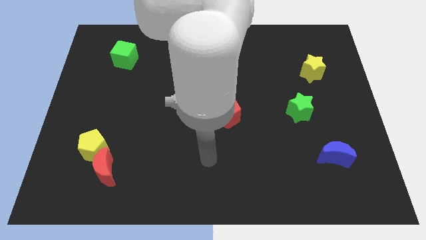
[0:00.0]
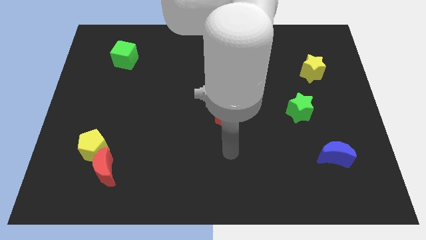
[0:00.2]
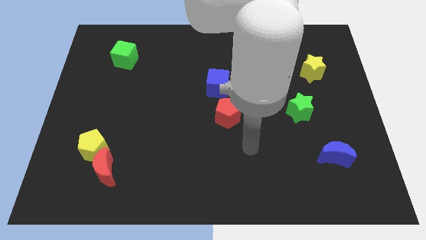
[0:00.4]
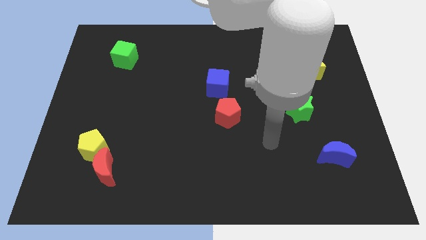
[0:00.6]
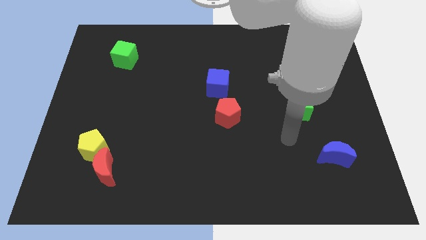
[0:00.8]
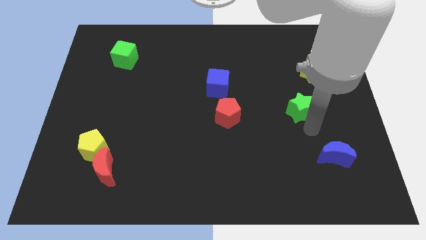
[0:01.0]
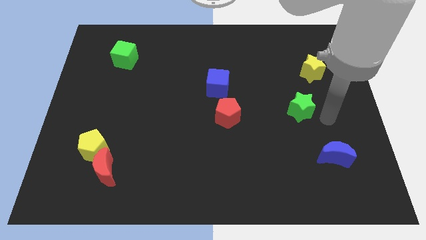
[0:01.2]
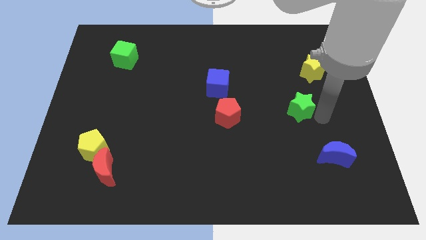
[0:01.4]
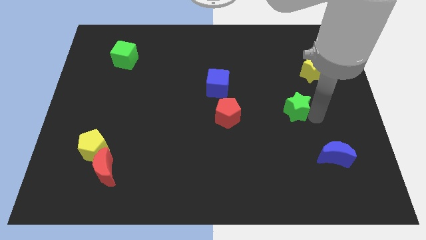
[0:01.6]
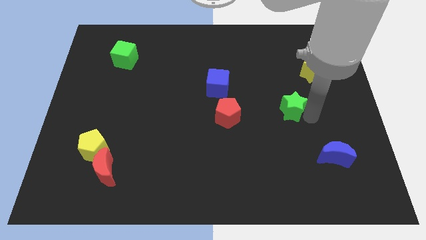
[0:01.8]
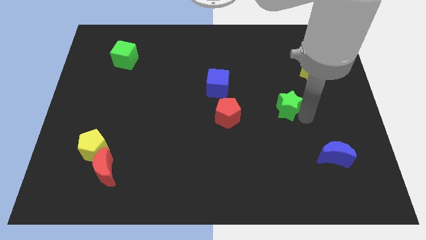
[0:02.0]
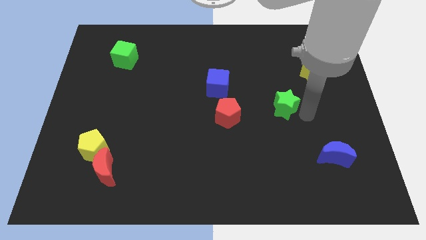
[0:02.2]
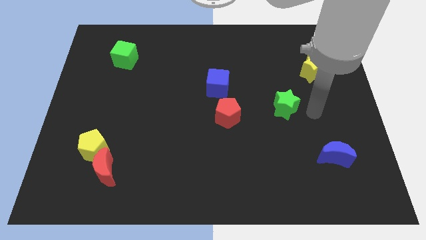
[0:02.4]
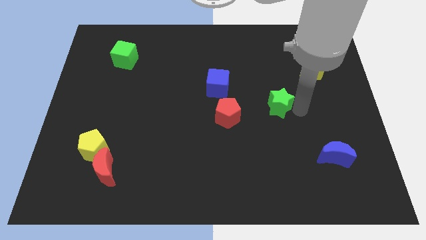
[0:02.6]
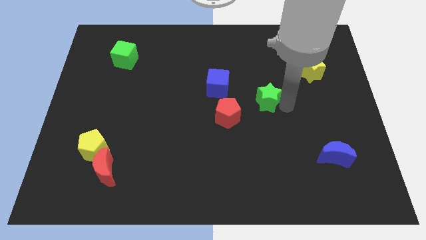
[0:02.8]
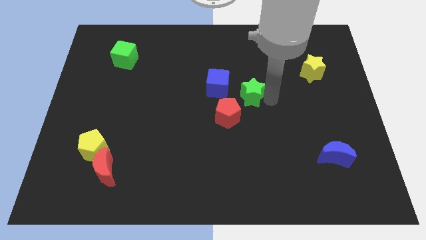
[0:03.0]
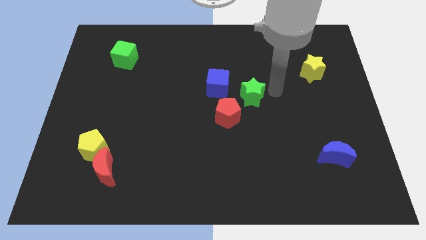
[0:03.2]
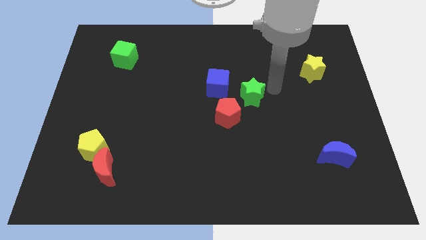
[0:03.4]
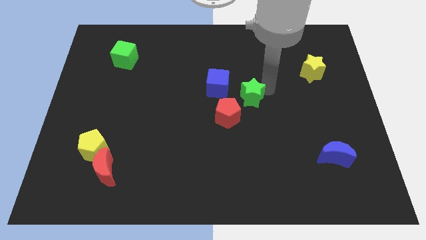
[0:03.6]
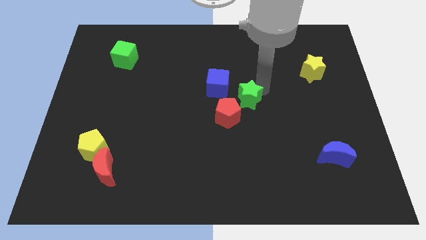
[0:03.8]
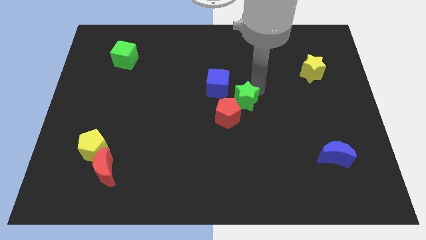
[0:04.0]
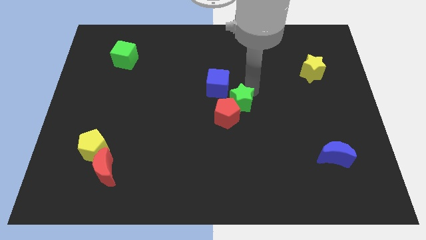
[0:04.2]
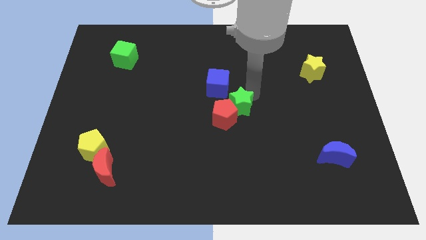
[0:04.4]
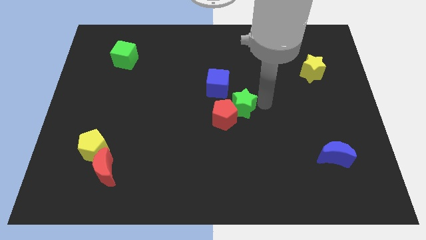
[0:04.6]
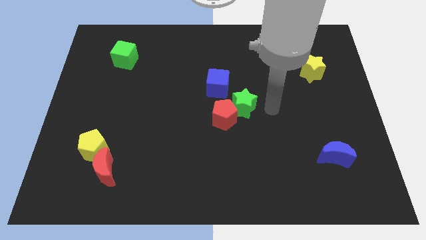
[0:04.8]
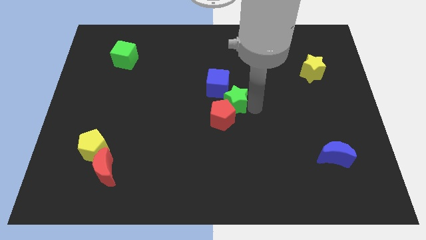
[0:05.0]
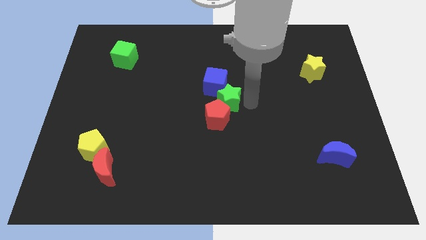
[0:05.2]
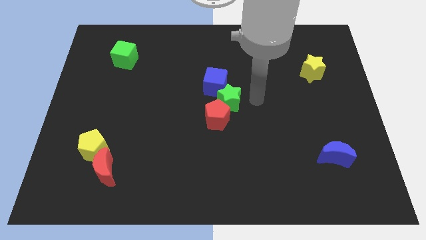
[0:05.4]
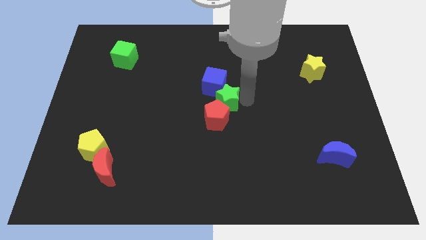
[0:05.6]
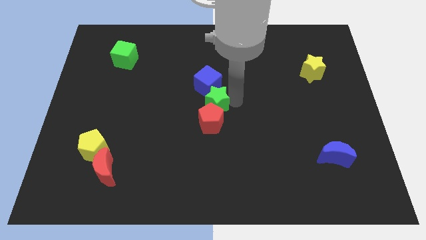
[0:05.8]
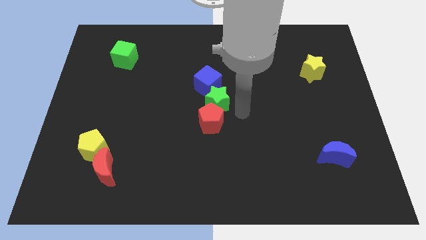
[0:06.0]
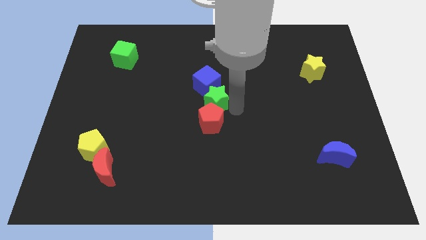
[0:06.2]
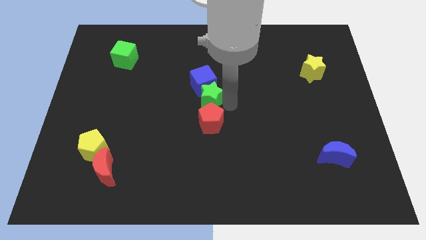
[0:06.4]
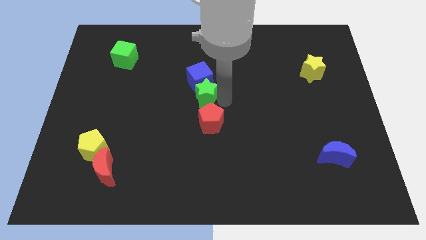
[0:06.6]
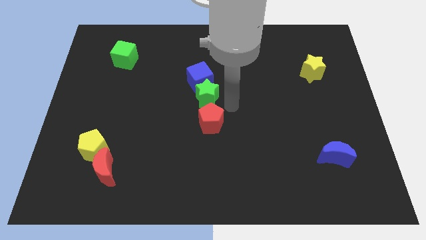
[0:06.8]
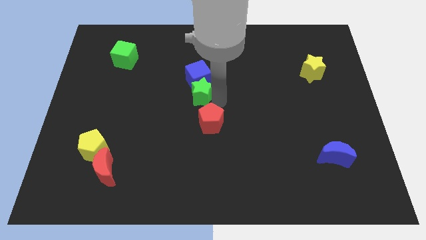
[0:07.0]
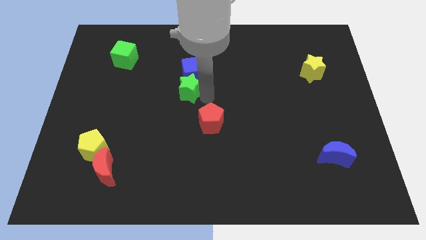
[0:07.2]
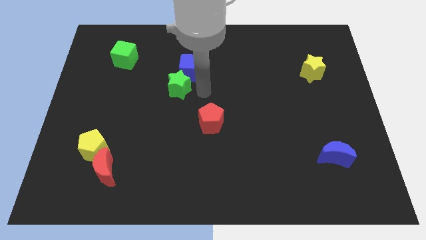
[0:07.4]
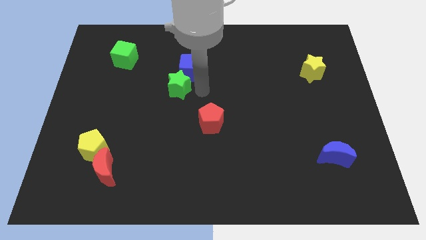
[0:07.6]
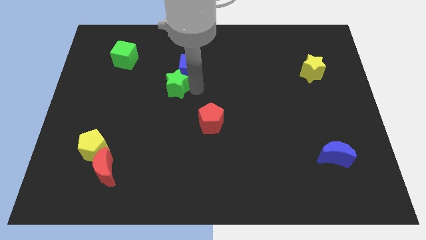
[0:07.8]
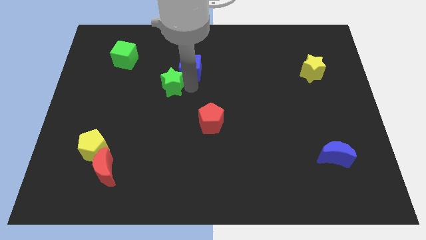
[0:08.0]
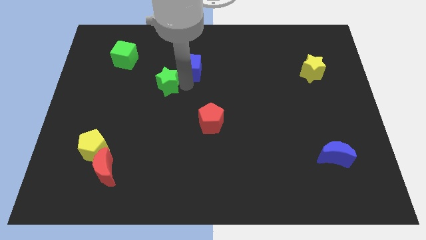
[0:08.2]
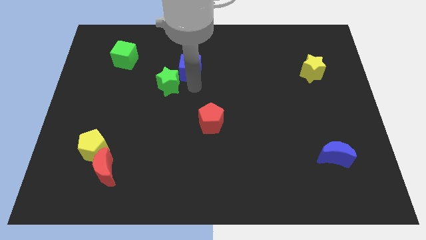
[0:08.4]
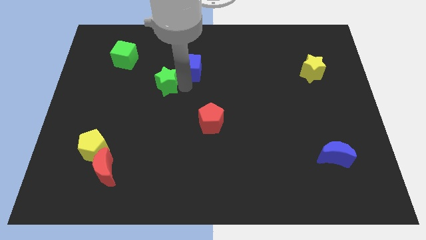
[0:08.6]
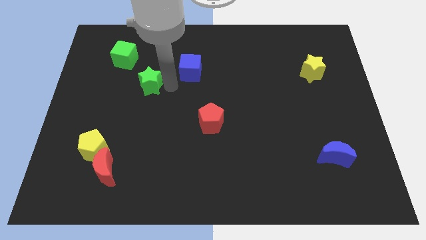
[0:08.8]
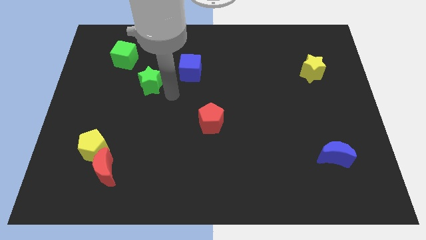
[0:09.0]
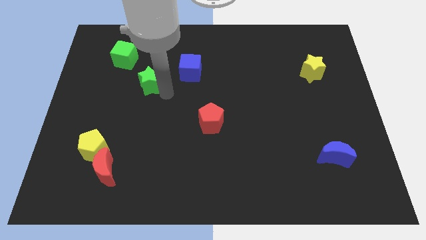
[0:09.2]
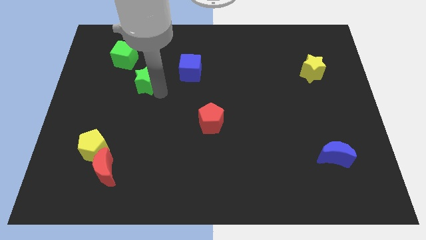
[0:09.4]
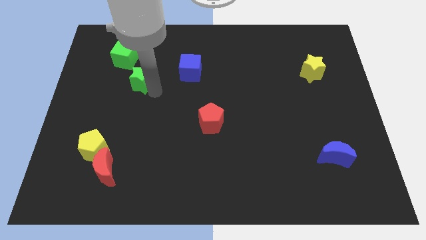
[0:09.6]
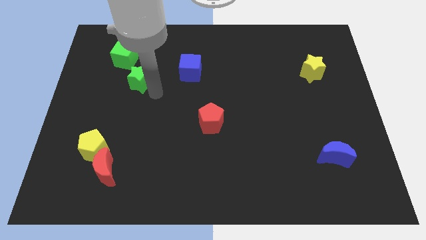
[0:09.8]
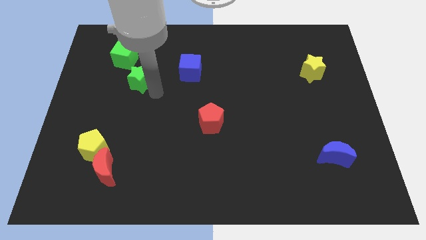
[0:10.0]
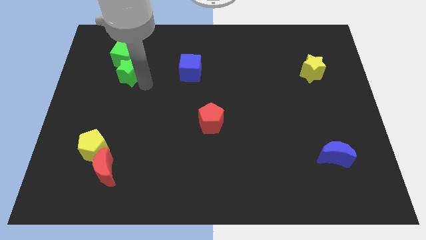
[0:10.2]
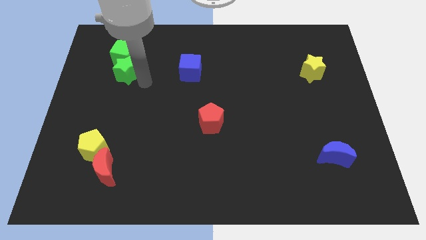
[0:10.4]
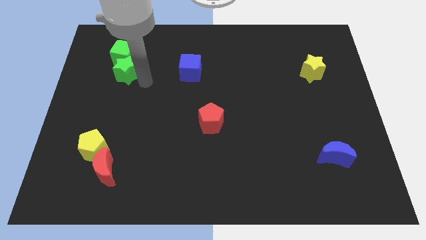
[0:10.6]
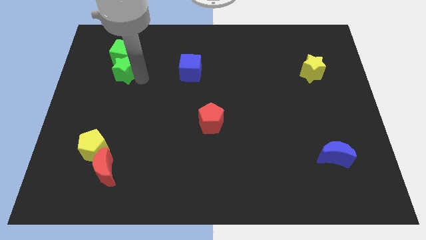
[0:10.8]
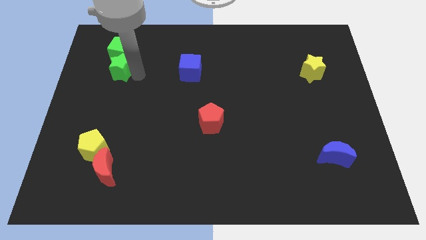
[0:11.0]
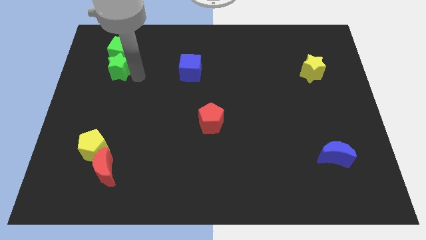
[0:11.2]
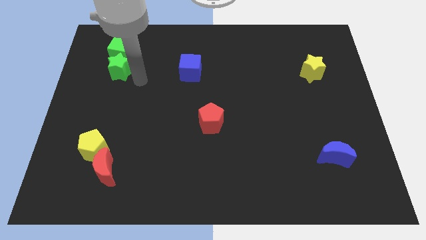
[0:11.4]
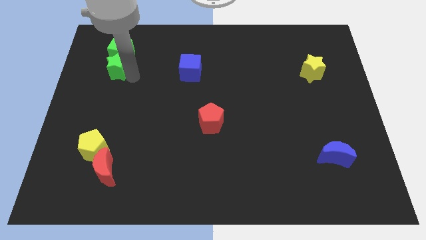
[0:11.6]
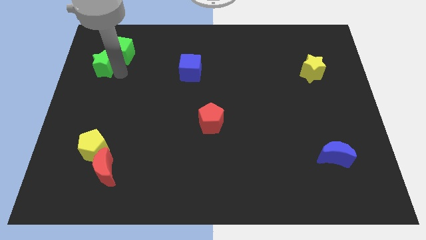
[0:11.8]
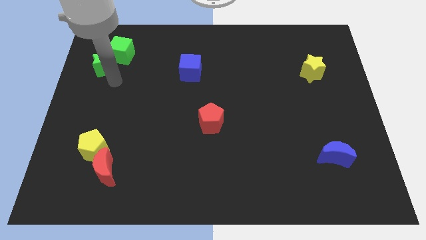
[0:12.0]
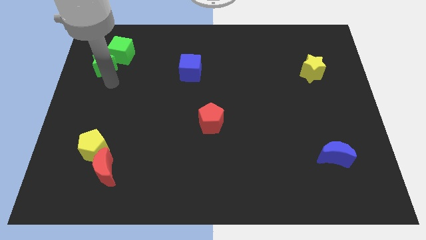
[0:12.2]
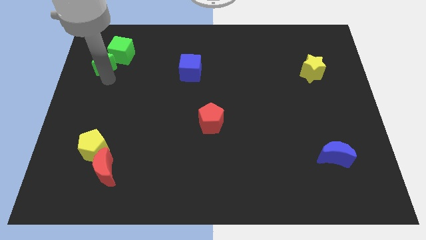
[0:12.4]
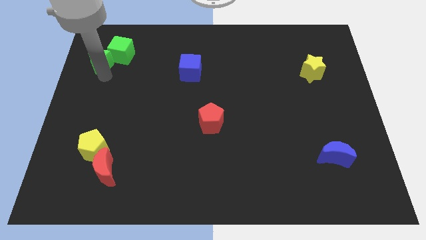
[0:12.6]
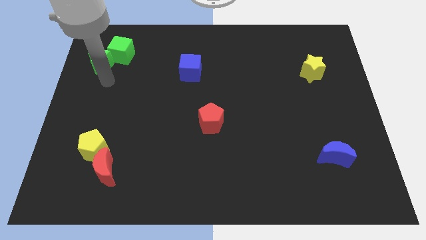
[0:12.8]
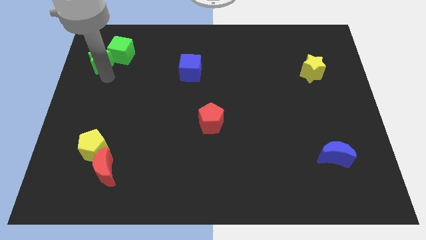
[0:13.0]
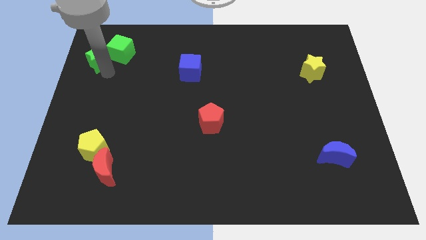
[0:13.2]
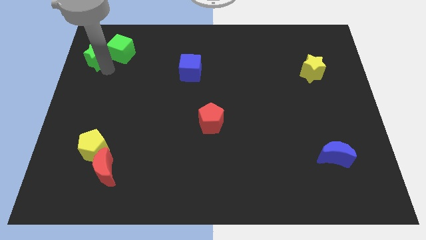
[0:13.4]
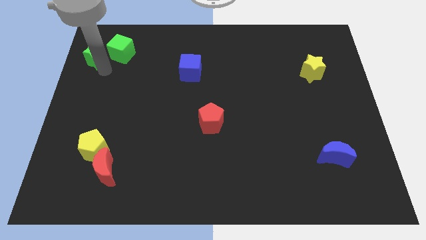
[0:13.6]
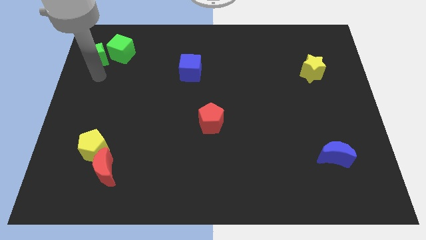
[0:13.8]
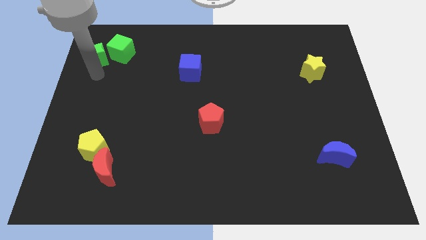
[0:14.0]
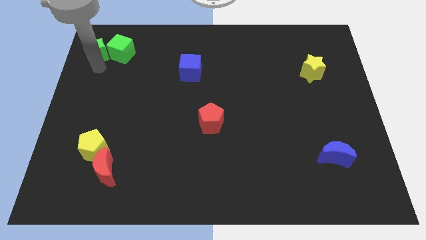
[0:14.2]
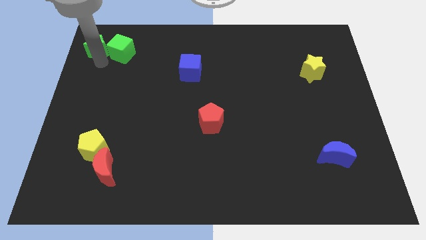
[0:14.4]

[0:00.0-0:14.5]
slide the green star to the top left of the board
